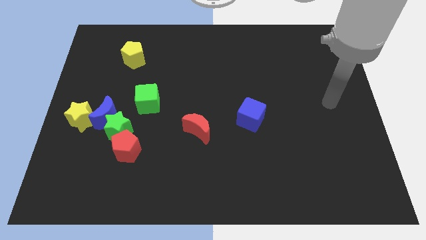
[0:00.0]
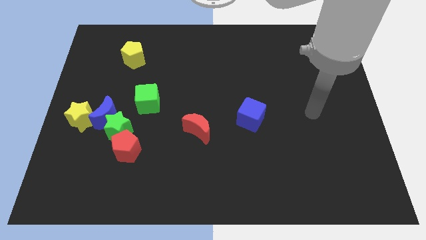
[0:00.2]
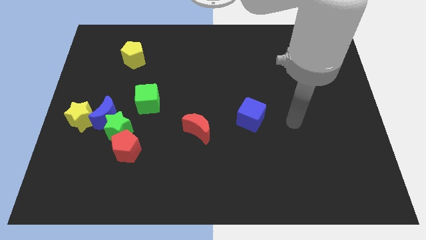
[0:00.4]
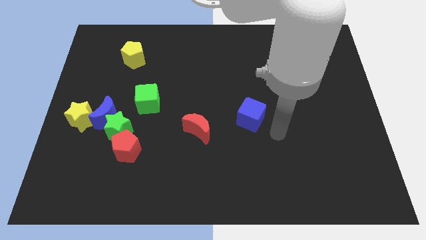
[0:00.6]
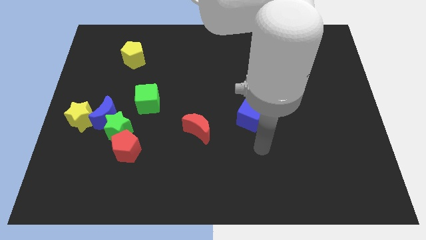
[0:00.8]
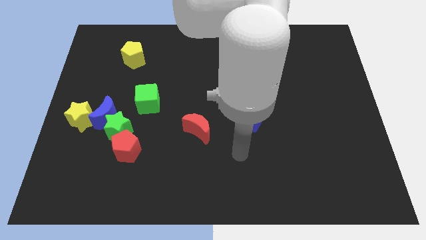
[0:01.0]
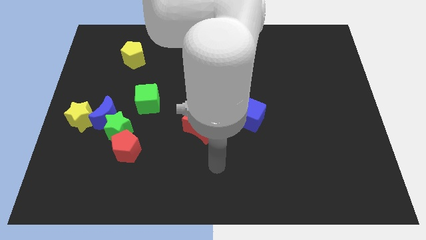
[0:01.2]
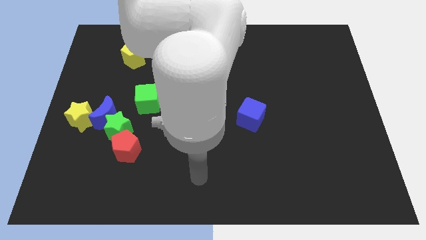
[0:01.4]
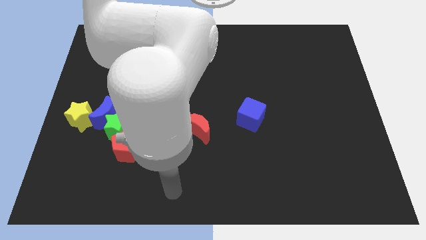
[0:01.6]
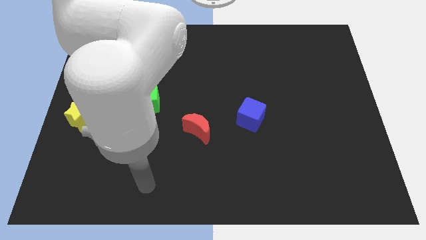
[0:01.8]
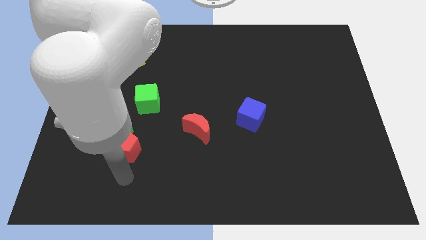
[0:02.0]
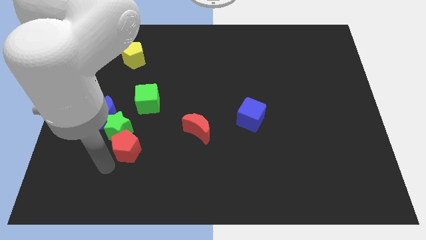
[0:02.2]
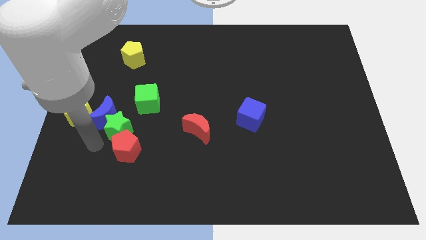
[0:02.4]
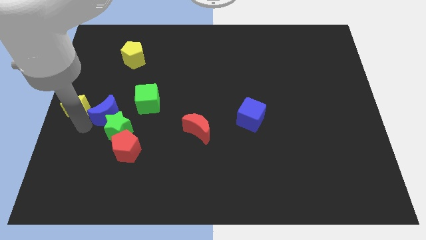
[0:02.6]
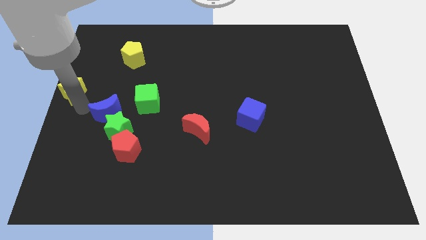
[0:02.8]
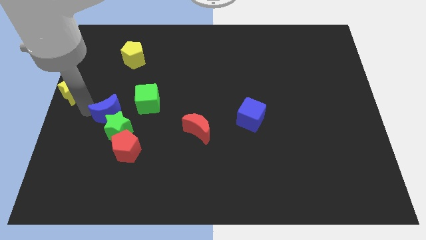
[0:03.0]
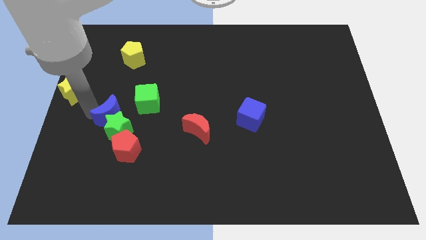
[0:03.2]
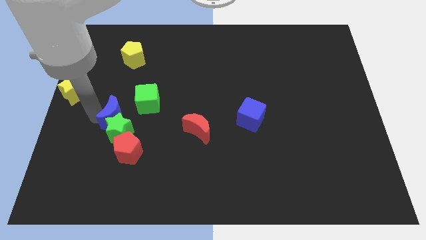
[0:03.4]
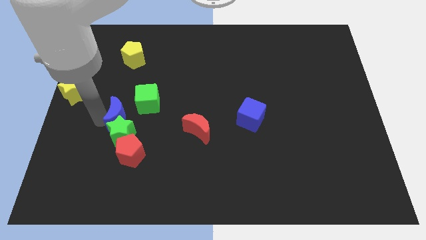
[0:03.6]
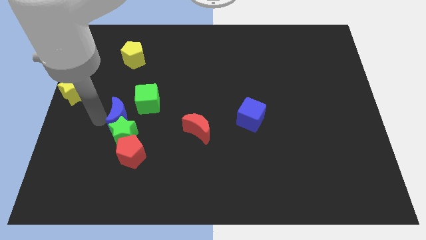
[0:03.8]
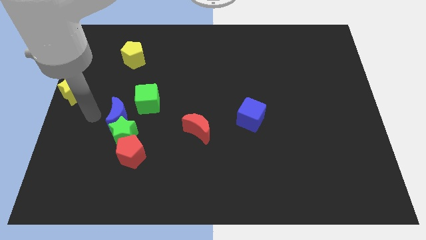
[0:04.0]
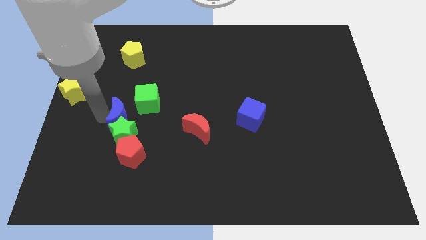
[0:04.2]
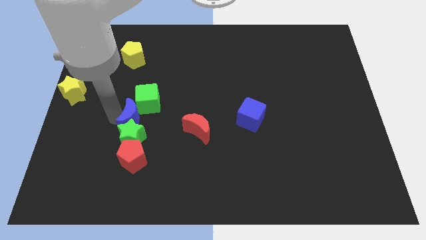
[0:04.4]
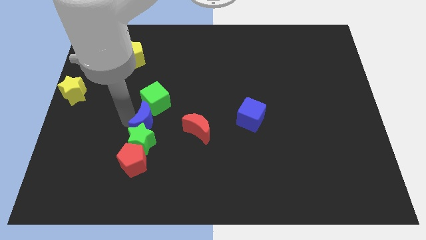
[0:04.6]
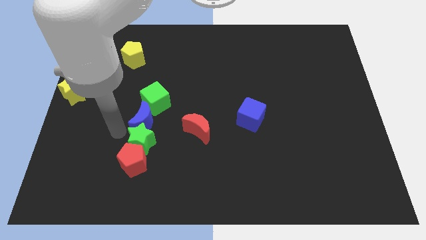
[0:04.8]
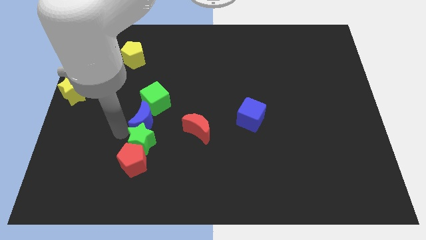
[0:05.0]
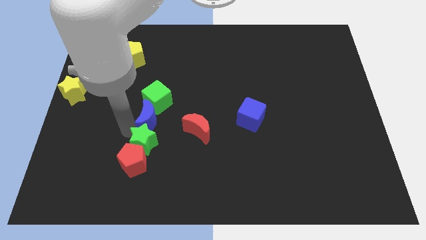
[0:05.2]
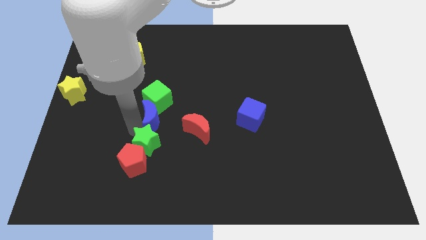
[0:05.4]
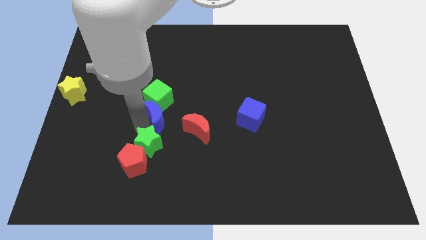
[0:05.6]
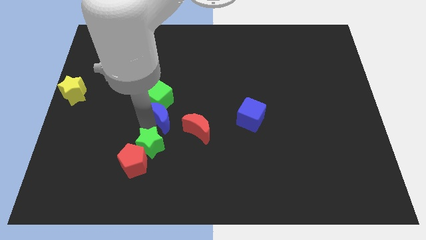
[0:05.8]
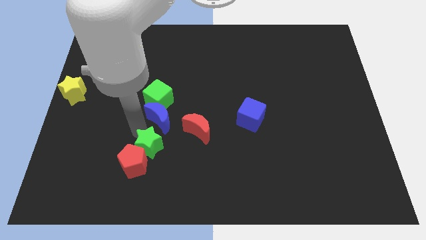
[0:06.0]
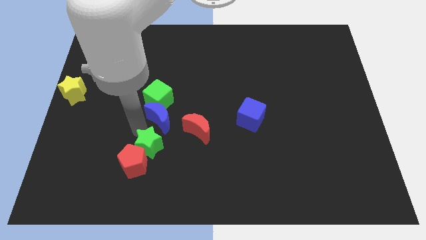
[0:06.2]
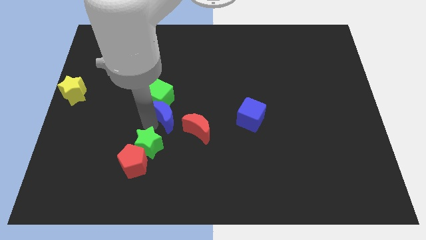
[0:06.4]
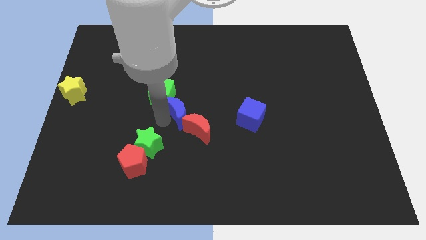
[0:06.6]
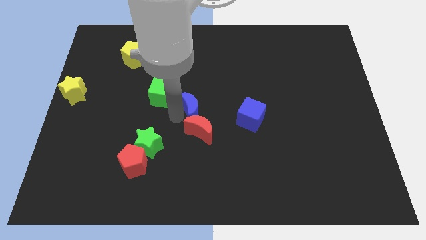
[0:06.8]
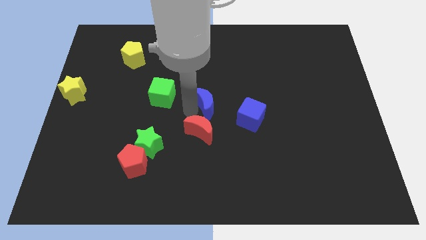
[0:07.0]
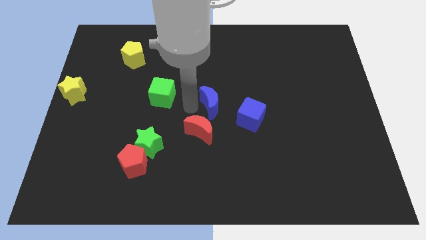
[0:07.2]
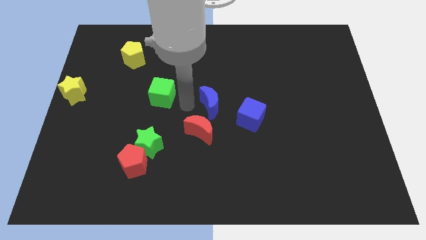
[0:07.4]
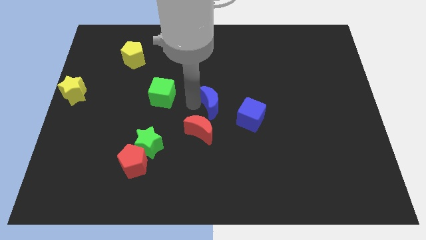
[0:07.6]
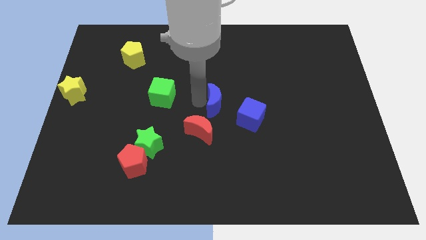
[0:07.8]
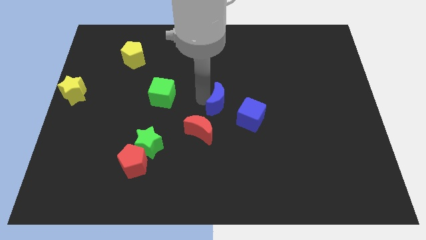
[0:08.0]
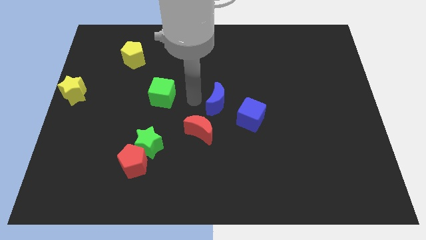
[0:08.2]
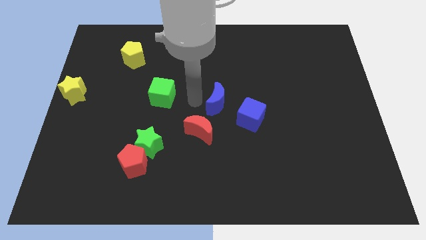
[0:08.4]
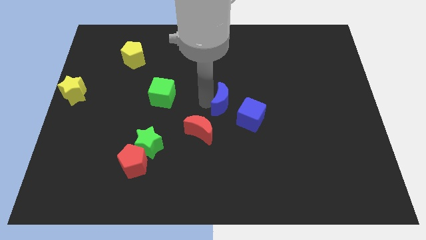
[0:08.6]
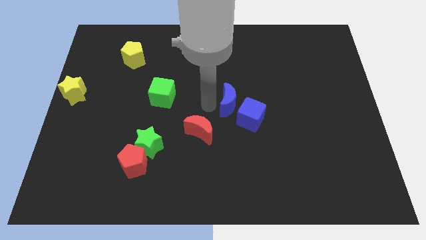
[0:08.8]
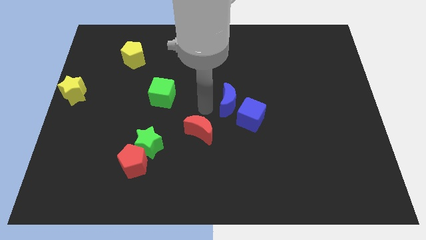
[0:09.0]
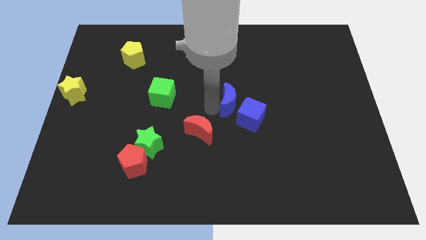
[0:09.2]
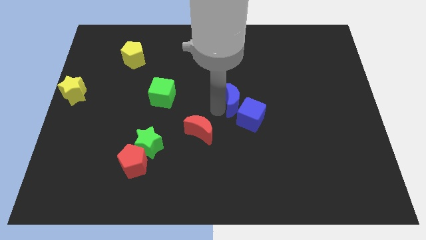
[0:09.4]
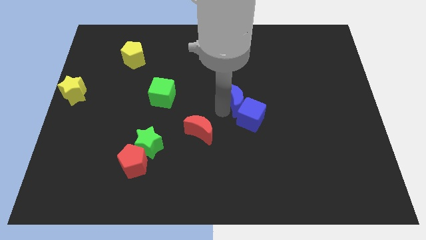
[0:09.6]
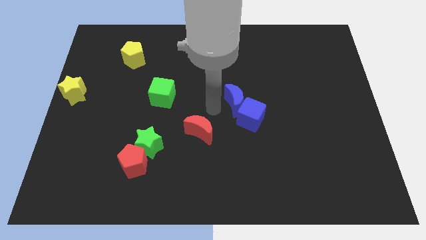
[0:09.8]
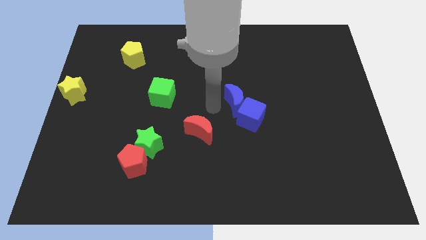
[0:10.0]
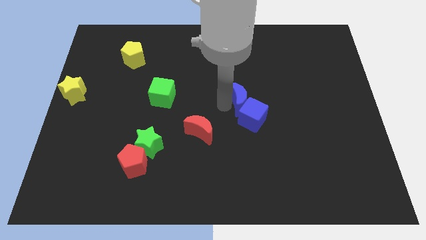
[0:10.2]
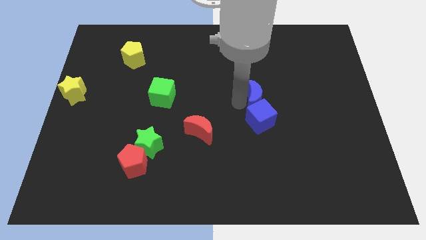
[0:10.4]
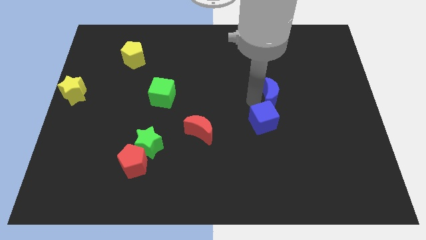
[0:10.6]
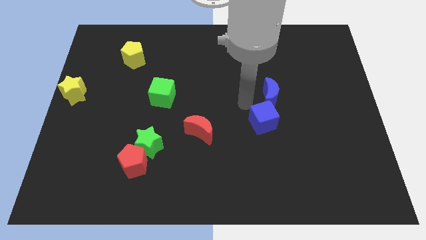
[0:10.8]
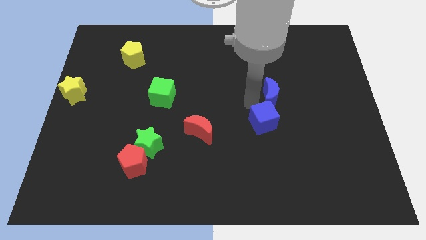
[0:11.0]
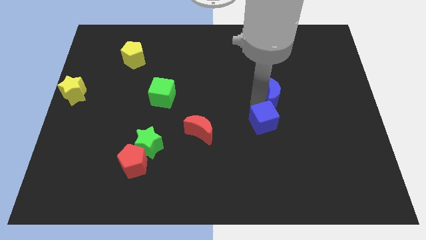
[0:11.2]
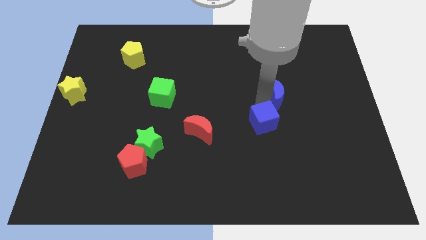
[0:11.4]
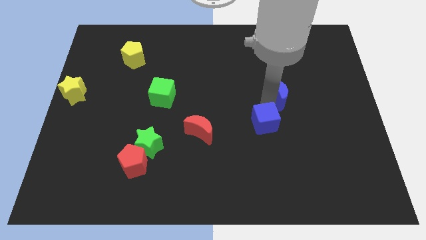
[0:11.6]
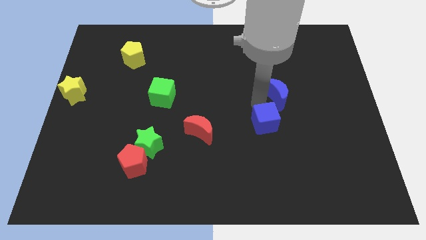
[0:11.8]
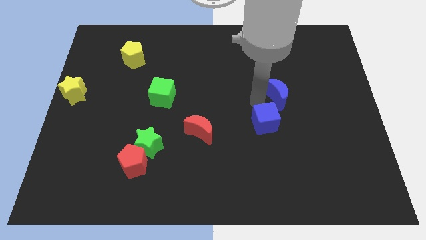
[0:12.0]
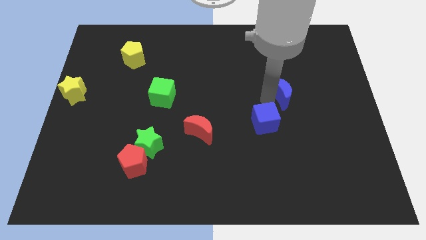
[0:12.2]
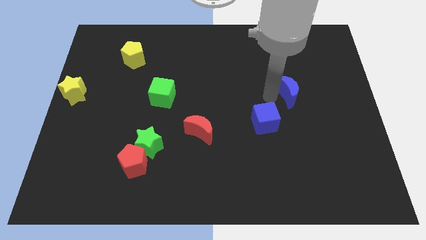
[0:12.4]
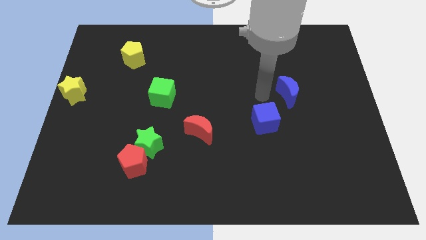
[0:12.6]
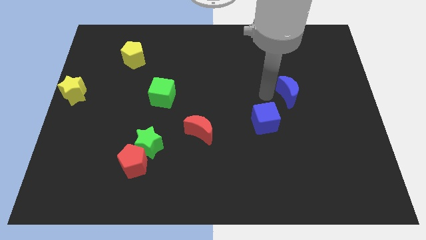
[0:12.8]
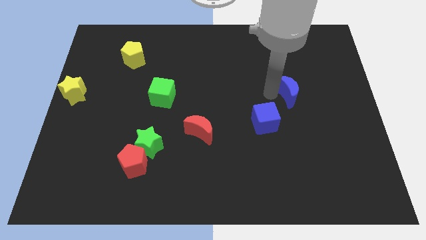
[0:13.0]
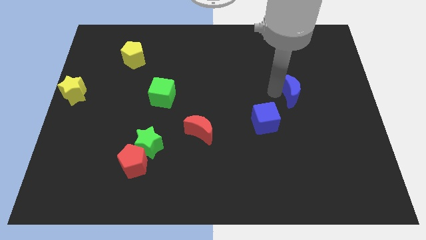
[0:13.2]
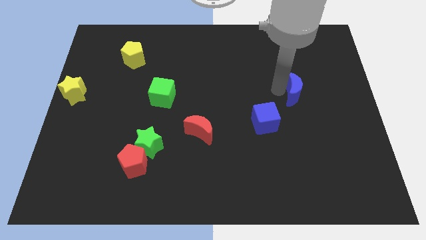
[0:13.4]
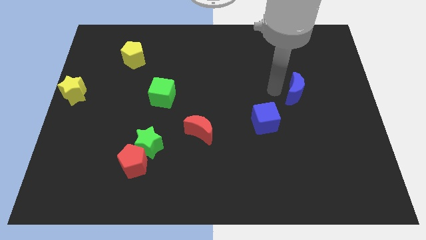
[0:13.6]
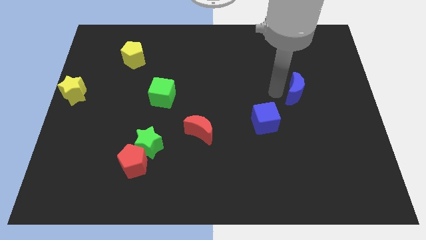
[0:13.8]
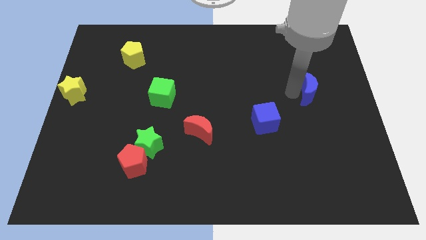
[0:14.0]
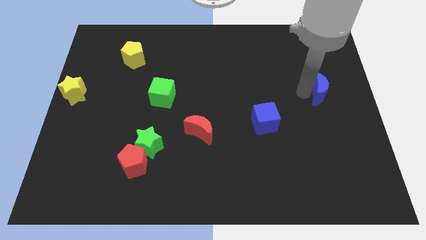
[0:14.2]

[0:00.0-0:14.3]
put the blue moon to the right side of the board
